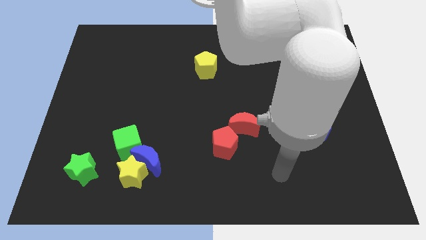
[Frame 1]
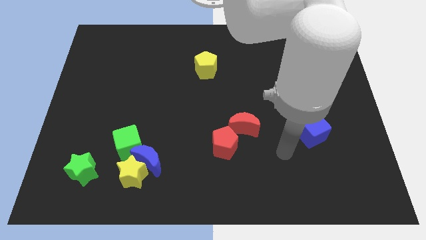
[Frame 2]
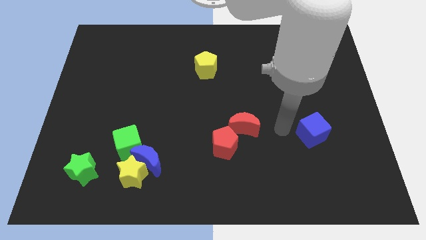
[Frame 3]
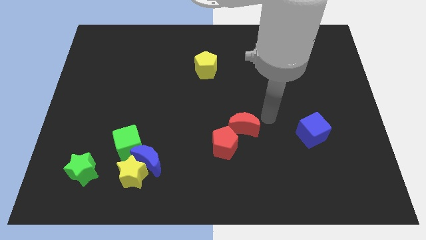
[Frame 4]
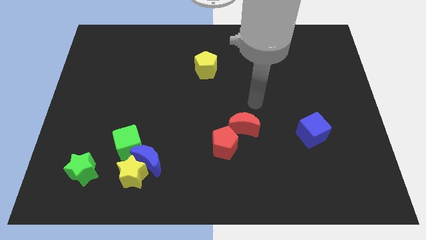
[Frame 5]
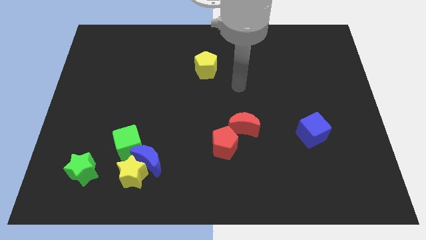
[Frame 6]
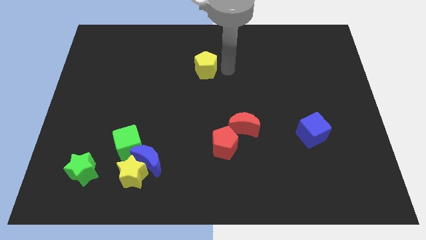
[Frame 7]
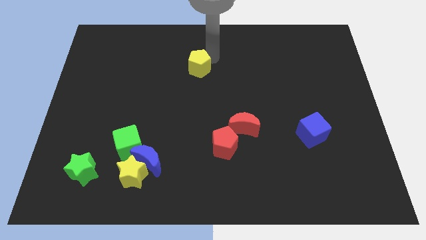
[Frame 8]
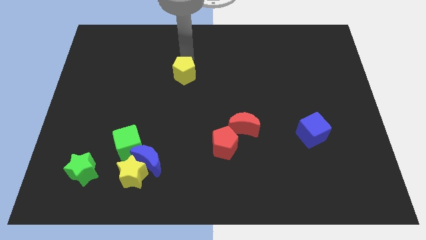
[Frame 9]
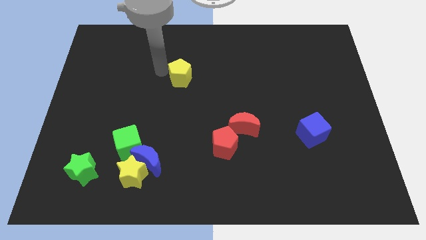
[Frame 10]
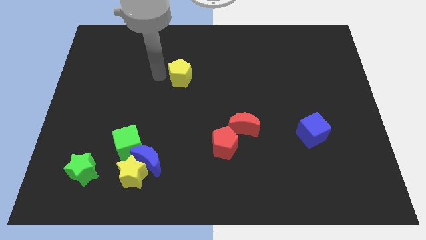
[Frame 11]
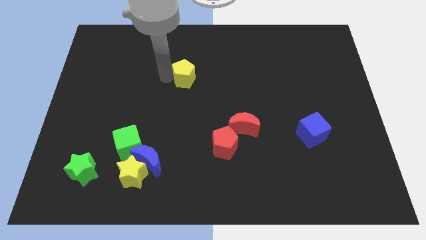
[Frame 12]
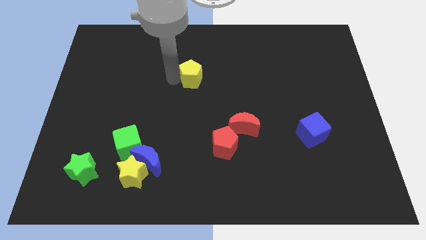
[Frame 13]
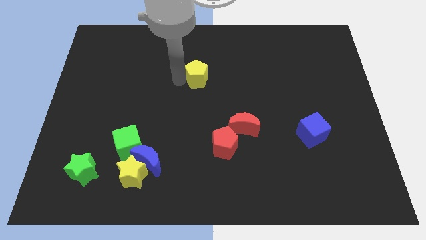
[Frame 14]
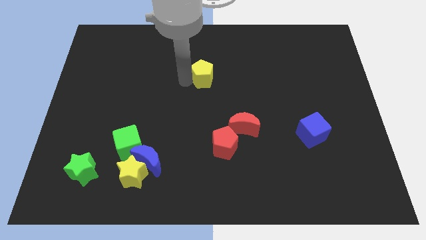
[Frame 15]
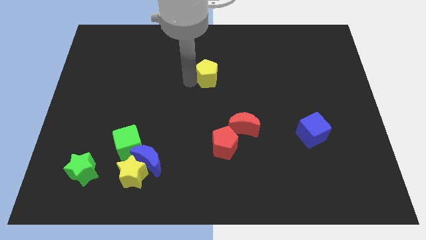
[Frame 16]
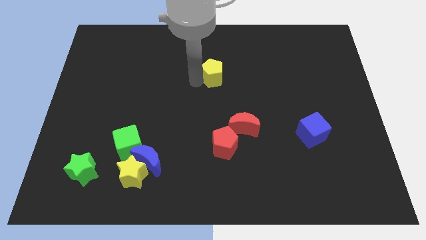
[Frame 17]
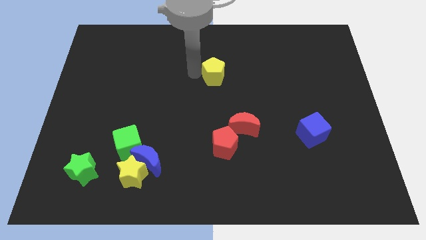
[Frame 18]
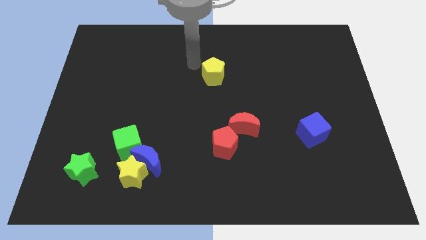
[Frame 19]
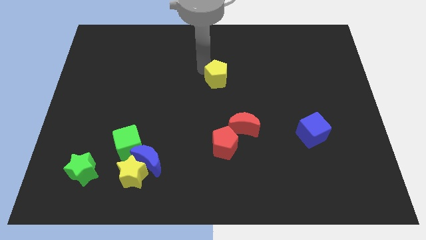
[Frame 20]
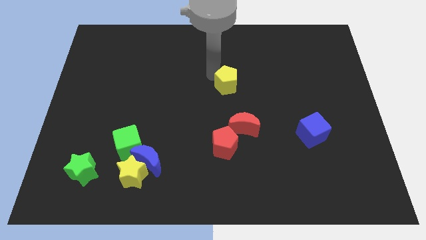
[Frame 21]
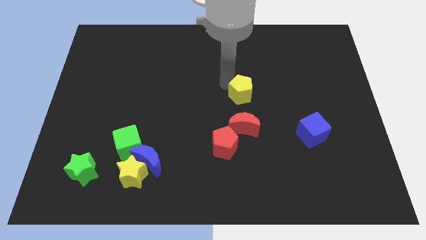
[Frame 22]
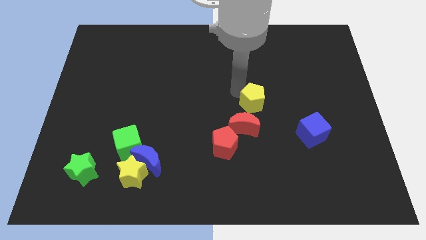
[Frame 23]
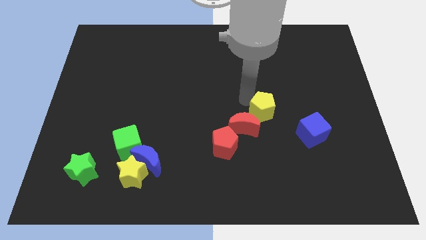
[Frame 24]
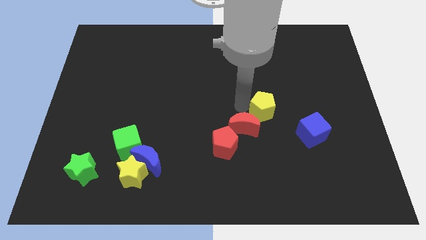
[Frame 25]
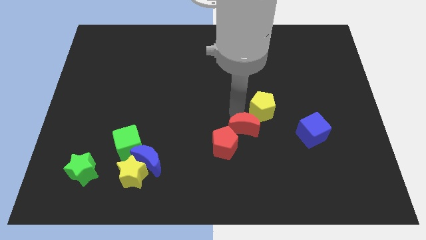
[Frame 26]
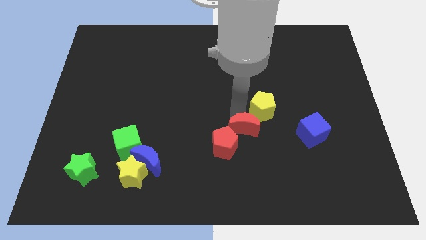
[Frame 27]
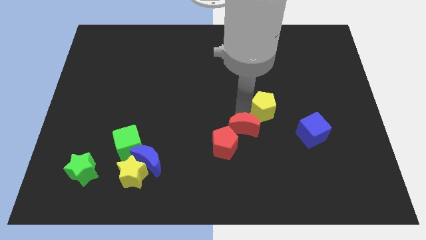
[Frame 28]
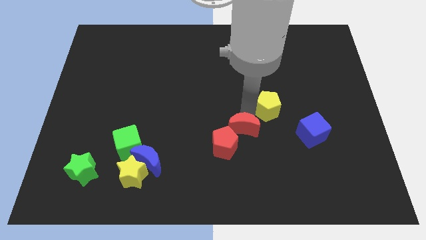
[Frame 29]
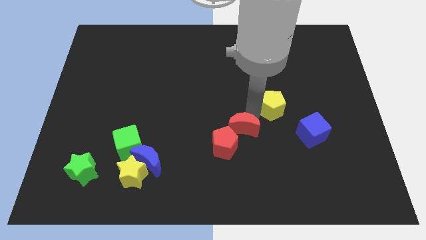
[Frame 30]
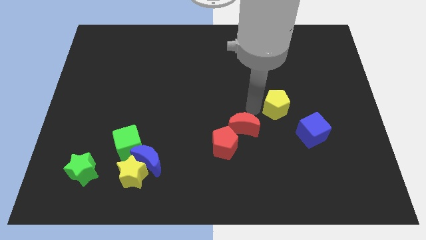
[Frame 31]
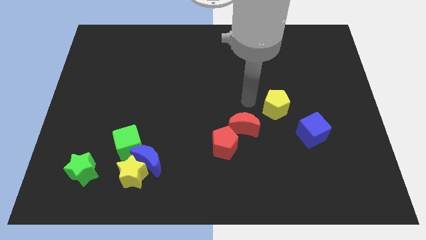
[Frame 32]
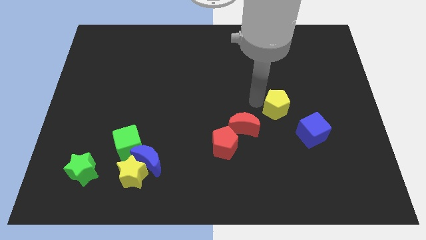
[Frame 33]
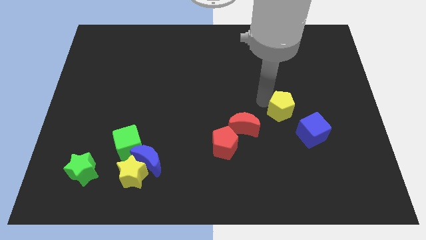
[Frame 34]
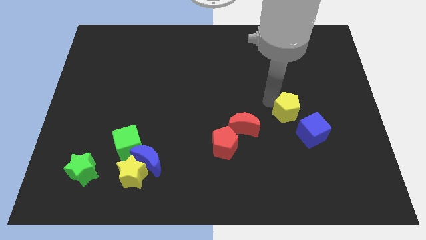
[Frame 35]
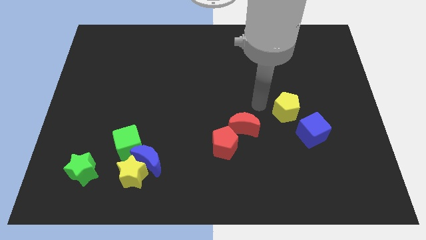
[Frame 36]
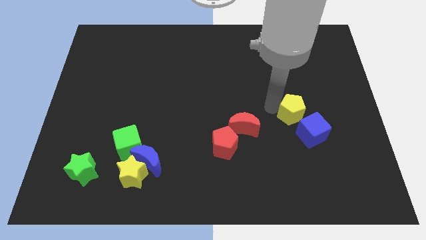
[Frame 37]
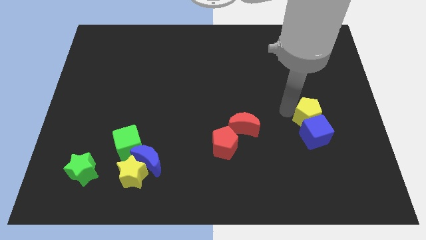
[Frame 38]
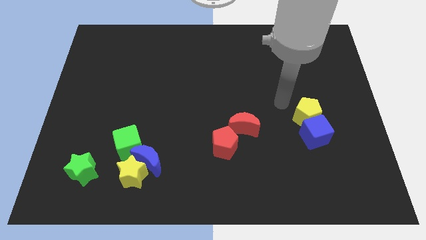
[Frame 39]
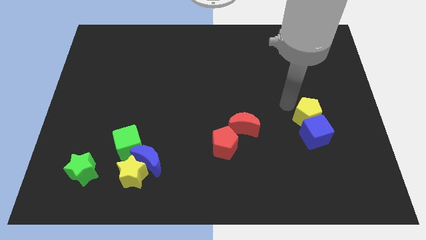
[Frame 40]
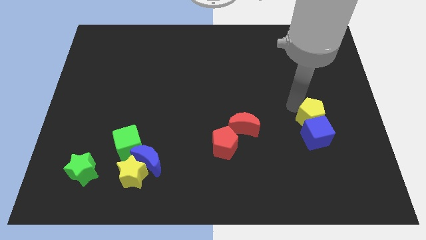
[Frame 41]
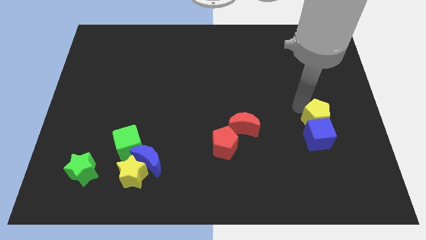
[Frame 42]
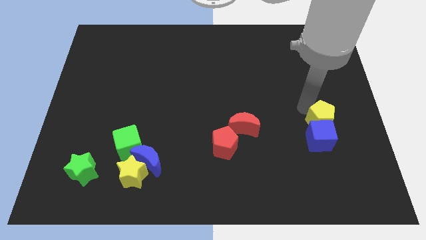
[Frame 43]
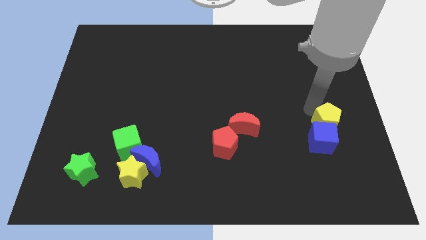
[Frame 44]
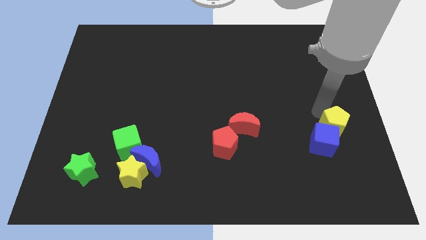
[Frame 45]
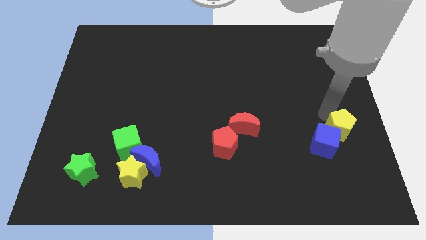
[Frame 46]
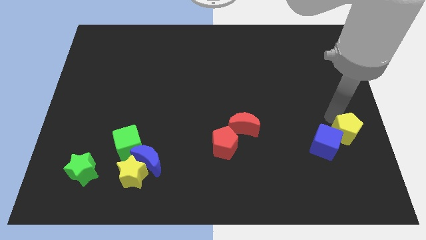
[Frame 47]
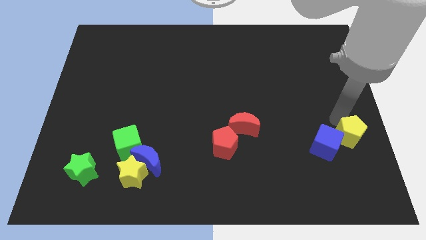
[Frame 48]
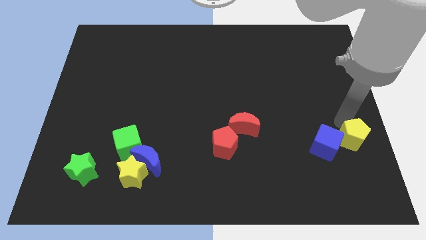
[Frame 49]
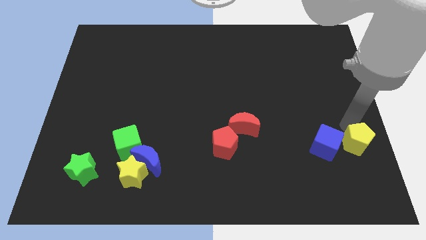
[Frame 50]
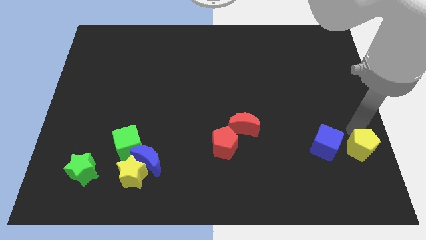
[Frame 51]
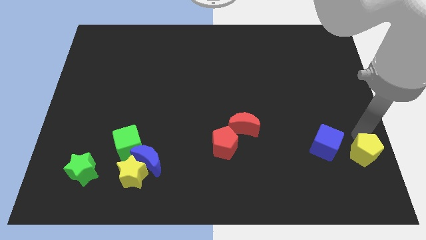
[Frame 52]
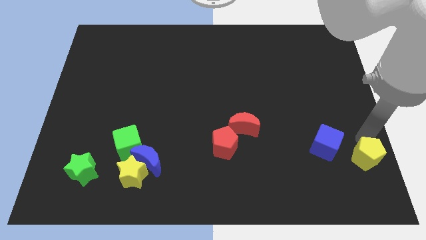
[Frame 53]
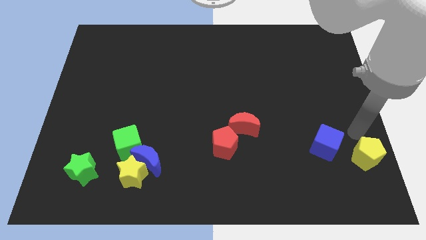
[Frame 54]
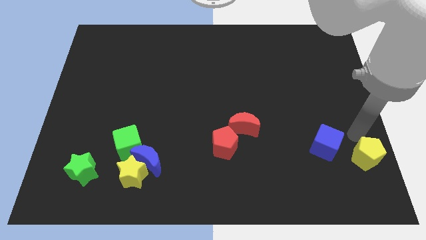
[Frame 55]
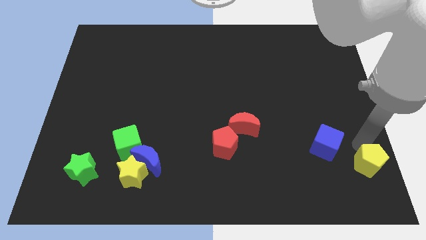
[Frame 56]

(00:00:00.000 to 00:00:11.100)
slide the yellow pentagon to the bottom right corner
